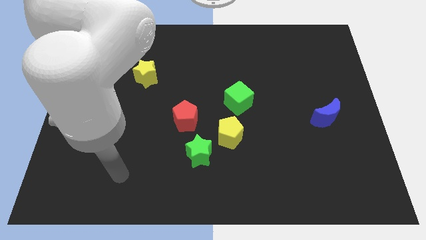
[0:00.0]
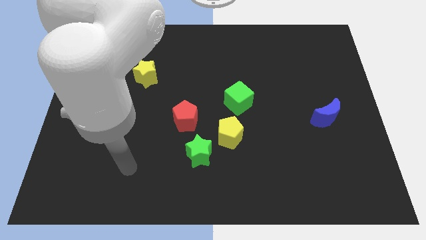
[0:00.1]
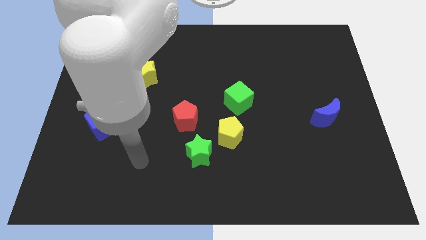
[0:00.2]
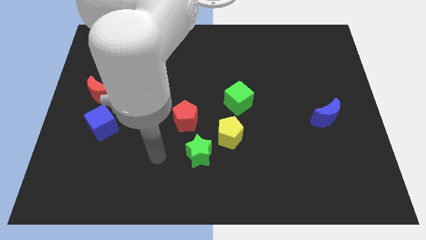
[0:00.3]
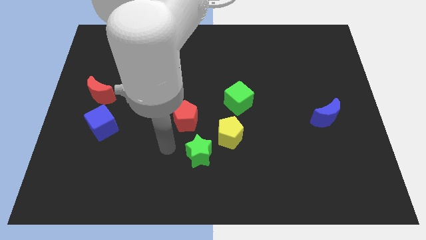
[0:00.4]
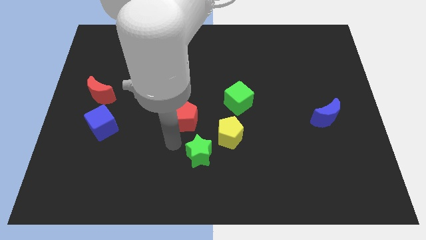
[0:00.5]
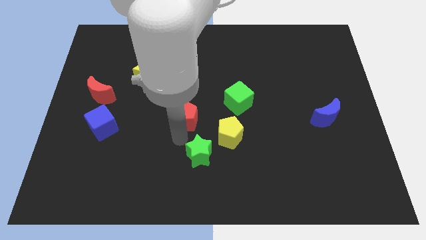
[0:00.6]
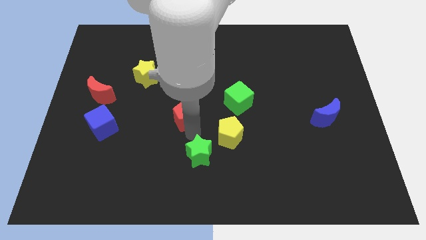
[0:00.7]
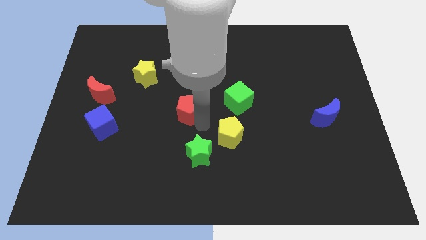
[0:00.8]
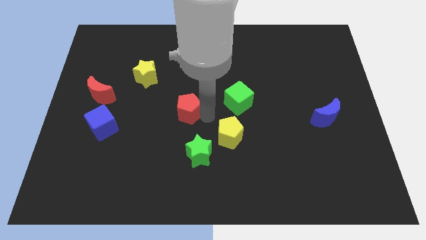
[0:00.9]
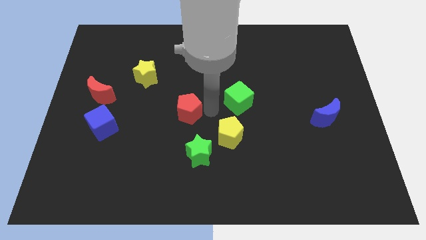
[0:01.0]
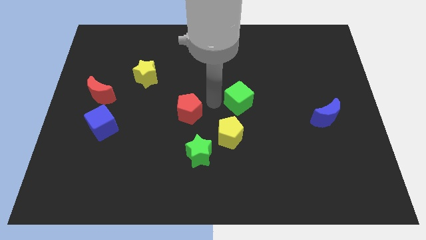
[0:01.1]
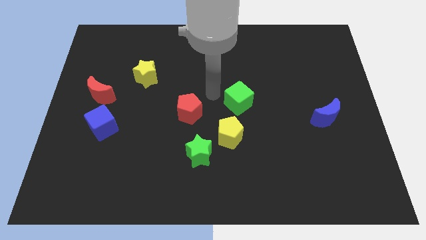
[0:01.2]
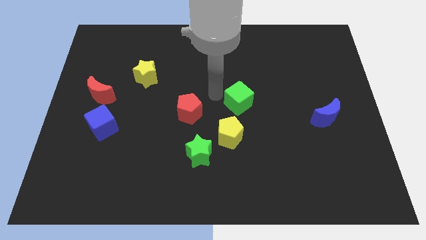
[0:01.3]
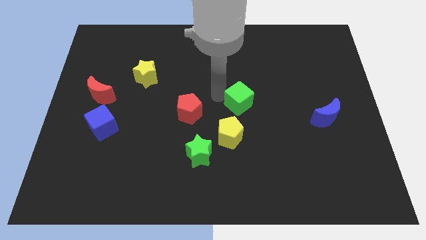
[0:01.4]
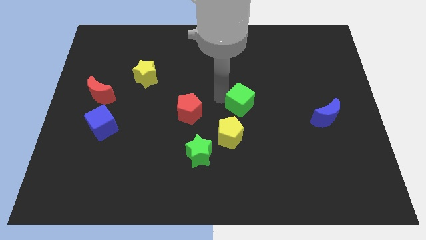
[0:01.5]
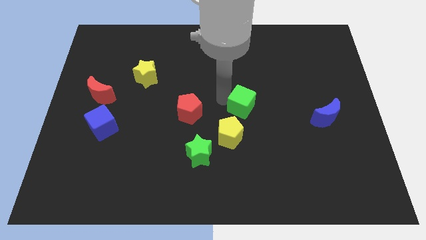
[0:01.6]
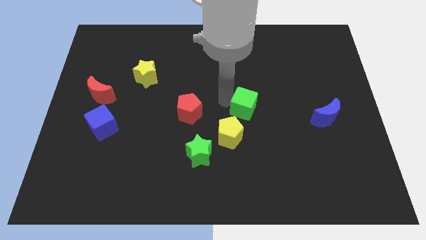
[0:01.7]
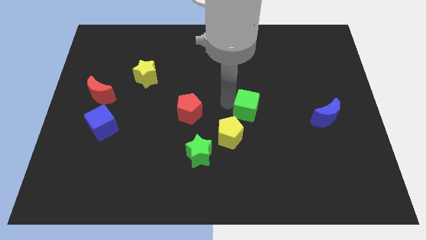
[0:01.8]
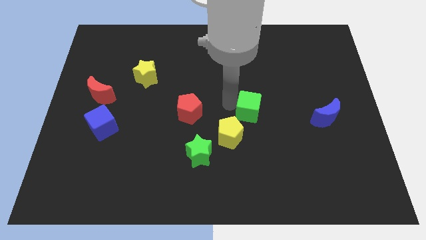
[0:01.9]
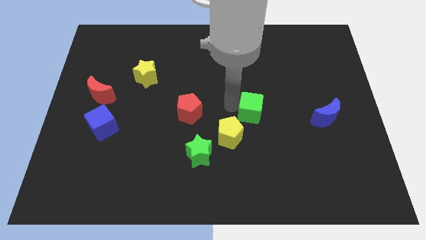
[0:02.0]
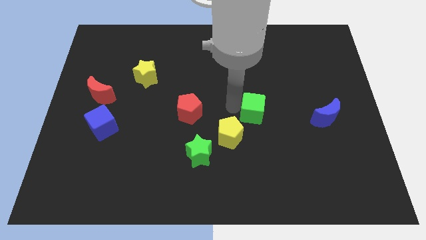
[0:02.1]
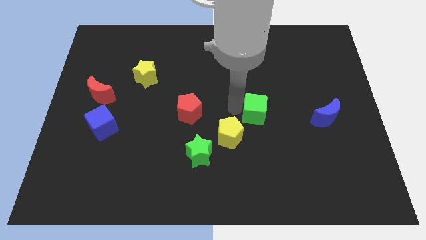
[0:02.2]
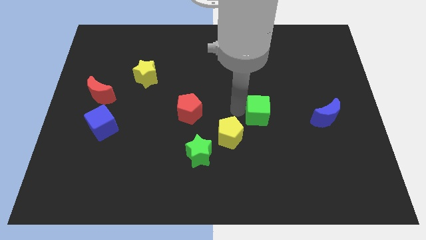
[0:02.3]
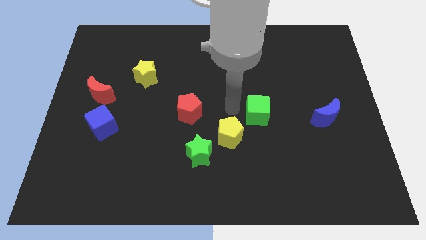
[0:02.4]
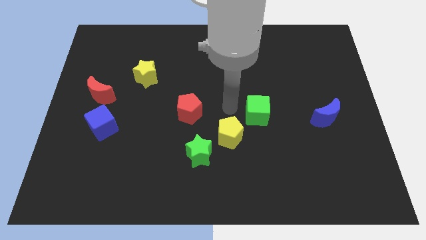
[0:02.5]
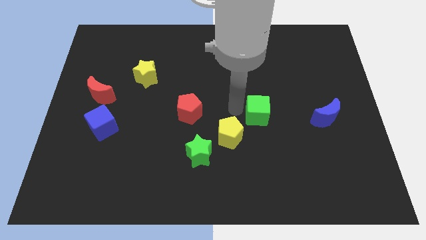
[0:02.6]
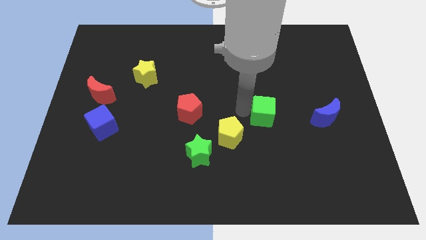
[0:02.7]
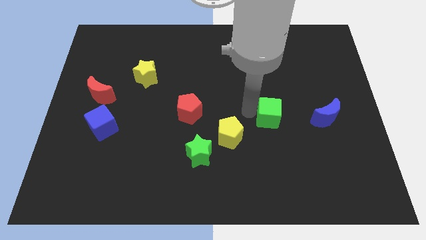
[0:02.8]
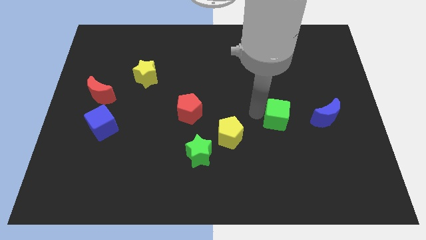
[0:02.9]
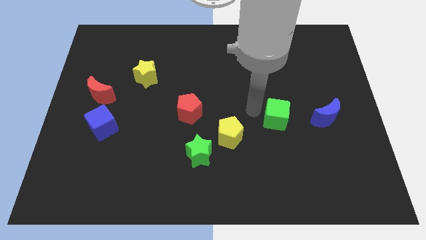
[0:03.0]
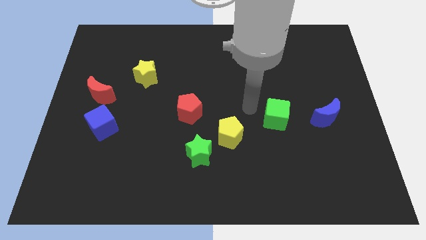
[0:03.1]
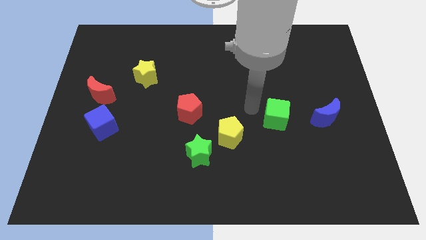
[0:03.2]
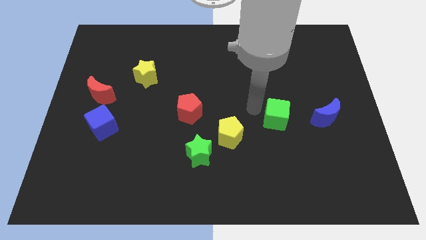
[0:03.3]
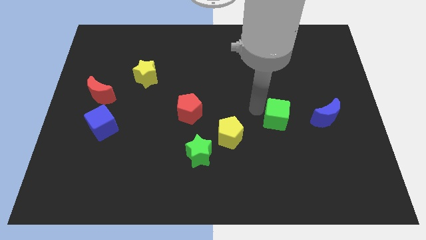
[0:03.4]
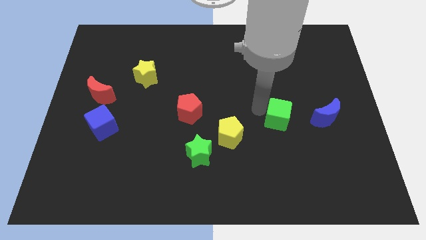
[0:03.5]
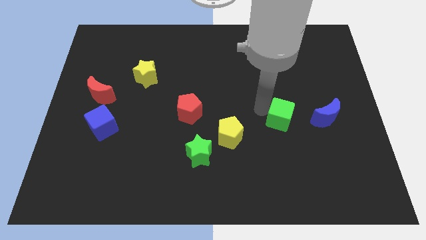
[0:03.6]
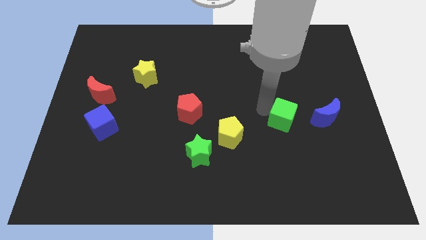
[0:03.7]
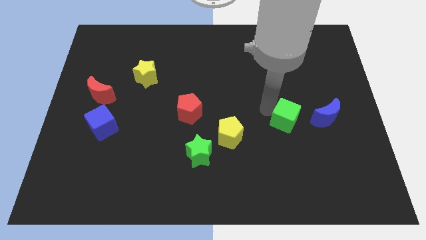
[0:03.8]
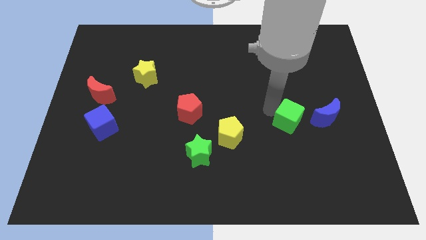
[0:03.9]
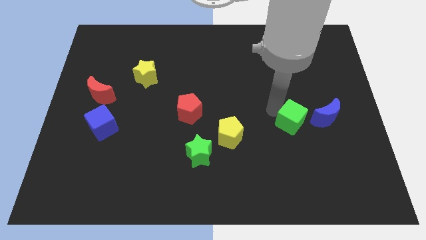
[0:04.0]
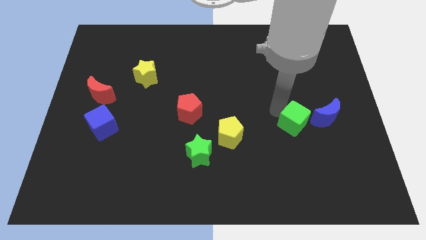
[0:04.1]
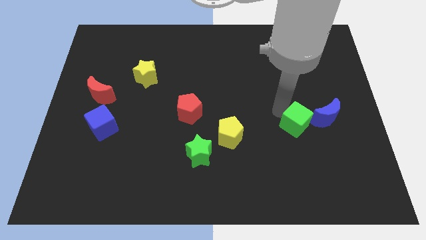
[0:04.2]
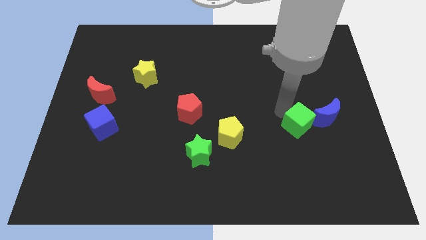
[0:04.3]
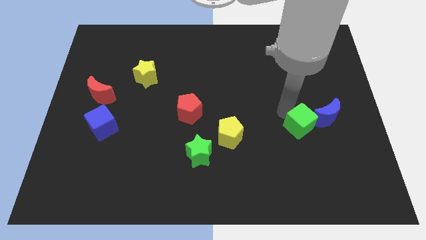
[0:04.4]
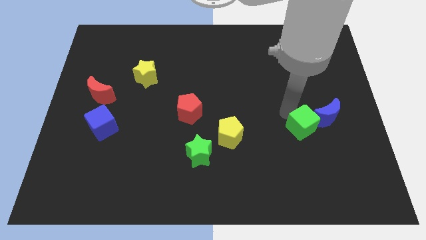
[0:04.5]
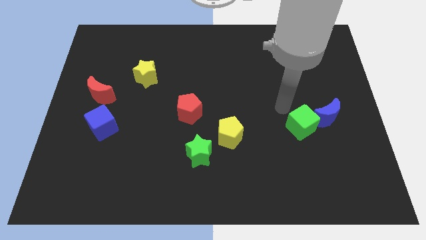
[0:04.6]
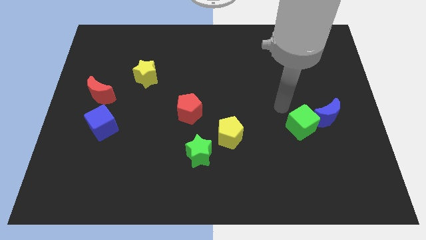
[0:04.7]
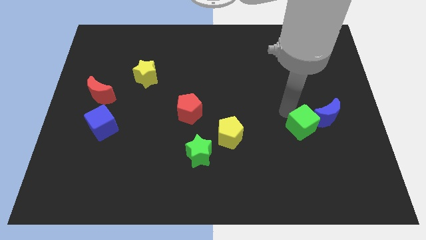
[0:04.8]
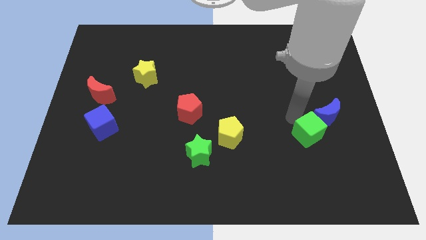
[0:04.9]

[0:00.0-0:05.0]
move the green cube to the bottom side of the blue moon

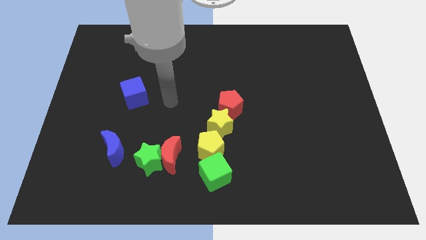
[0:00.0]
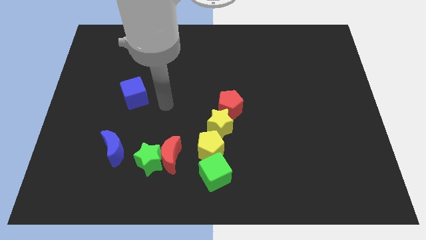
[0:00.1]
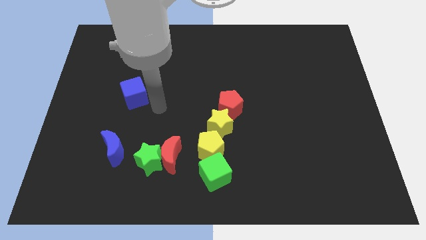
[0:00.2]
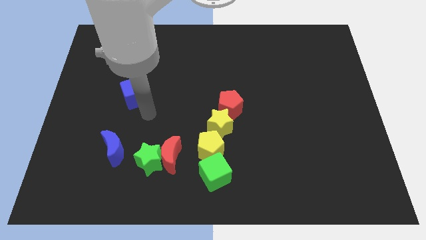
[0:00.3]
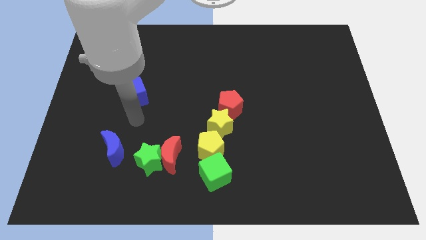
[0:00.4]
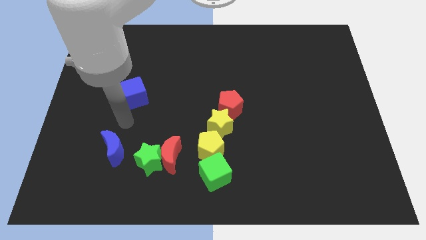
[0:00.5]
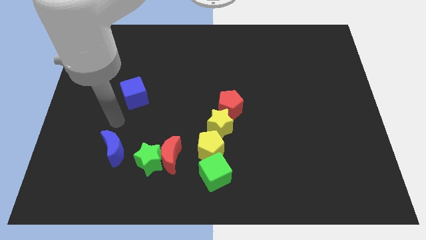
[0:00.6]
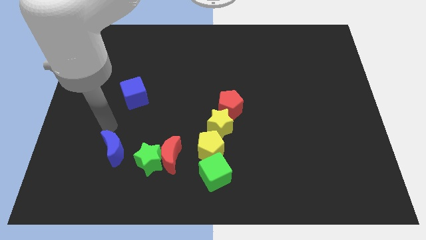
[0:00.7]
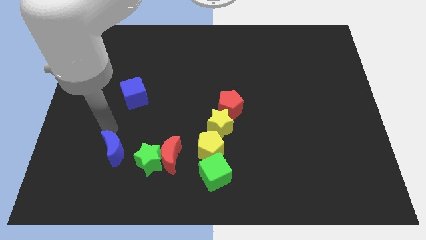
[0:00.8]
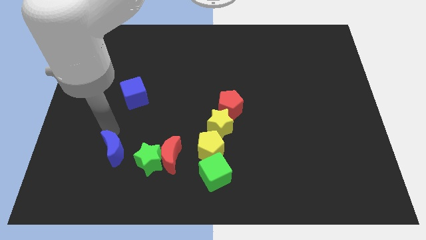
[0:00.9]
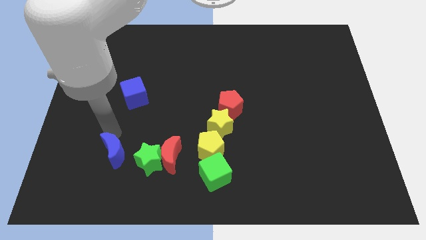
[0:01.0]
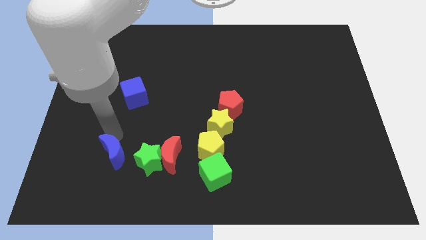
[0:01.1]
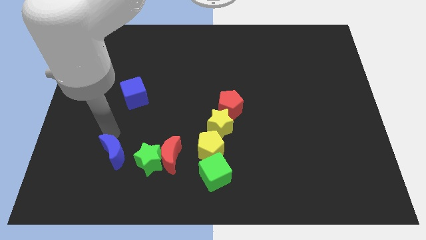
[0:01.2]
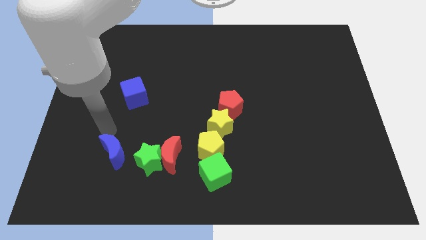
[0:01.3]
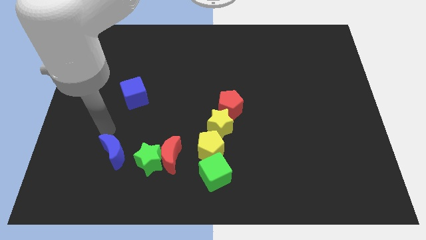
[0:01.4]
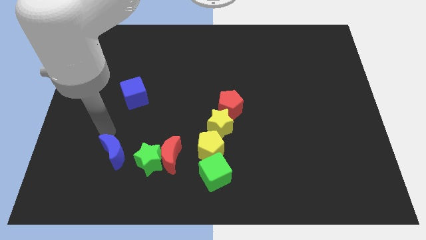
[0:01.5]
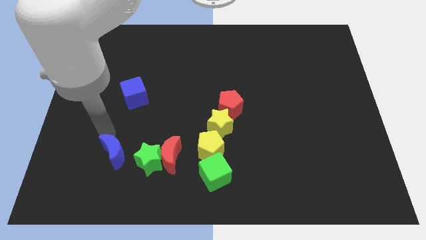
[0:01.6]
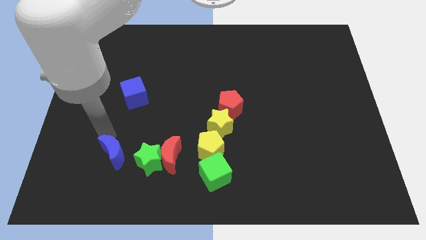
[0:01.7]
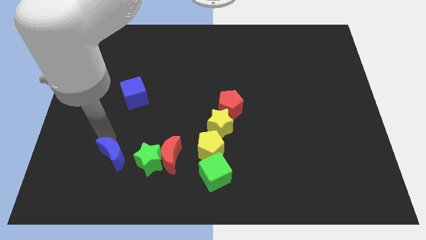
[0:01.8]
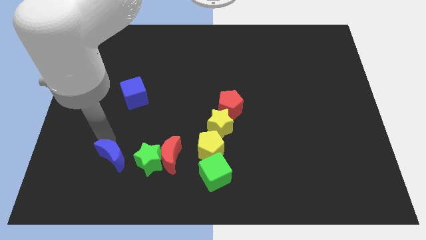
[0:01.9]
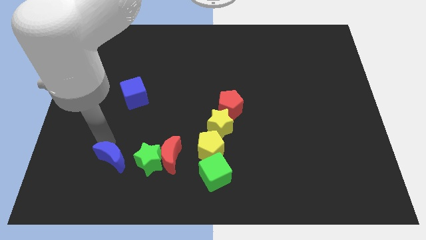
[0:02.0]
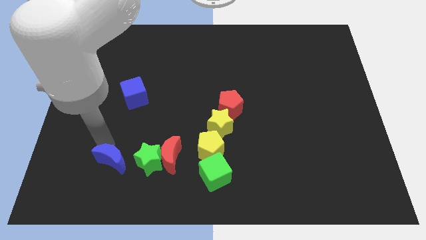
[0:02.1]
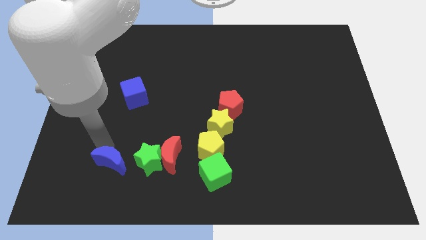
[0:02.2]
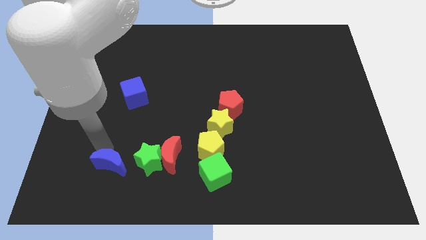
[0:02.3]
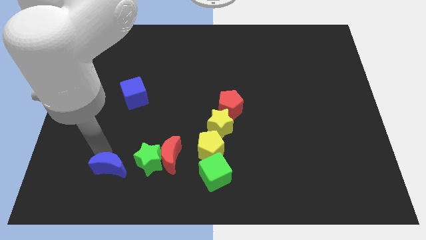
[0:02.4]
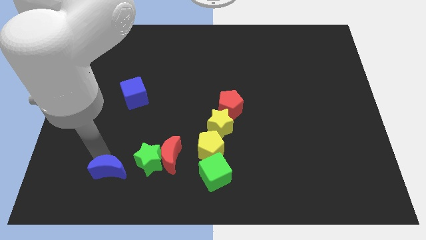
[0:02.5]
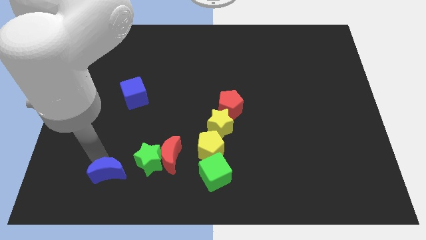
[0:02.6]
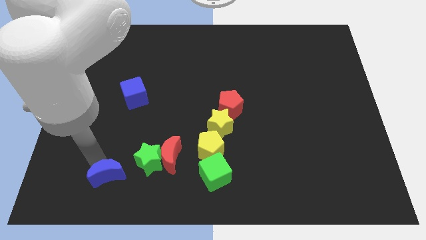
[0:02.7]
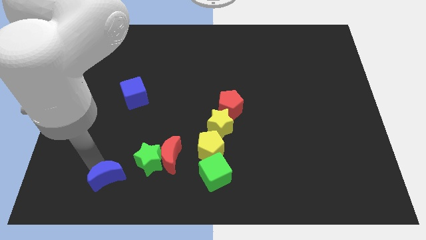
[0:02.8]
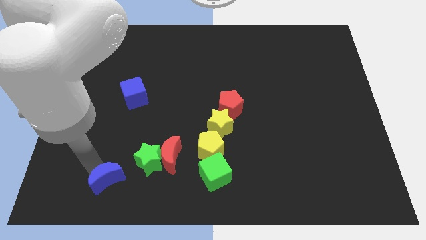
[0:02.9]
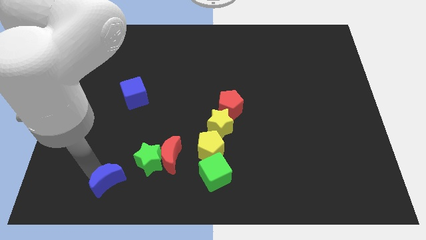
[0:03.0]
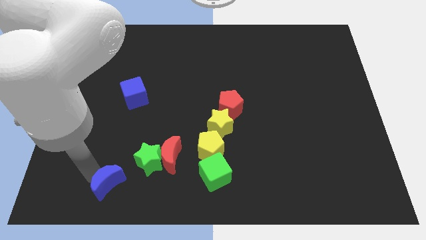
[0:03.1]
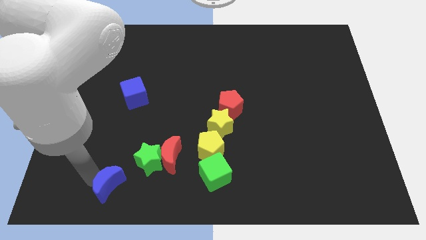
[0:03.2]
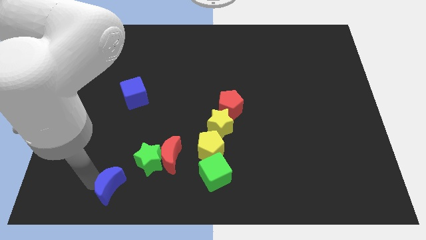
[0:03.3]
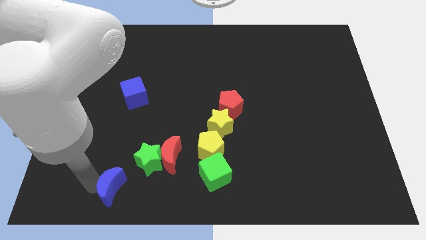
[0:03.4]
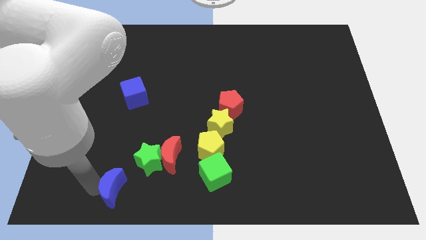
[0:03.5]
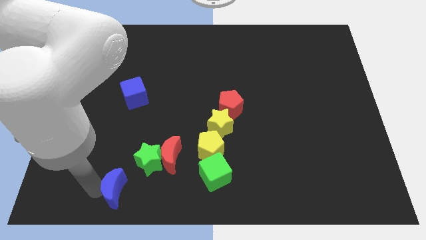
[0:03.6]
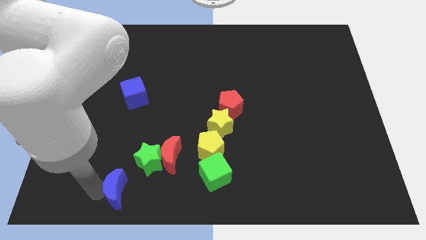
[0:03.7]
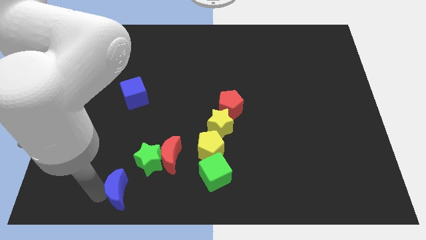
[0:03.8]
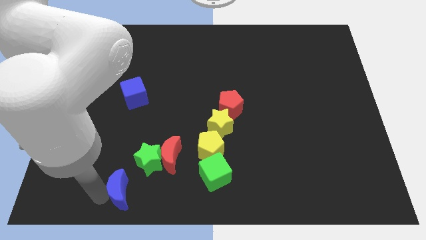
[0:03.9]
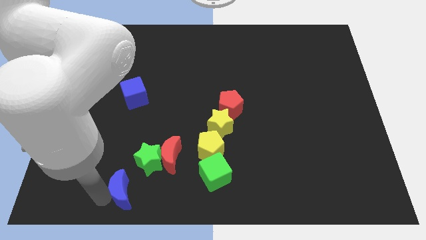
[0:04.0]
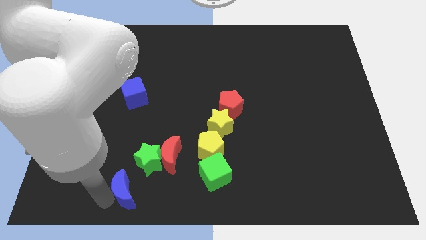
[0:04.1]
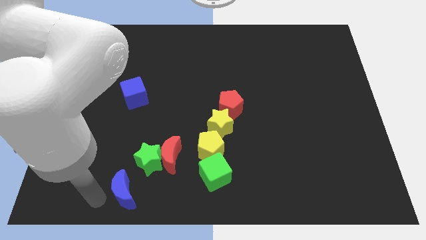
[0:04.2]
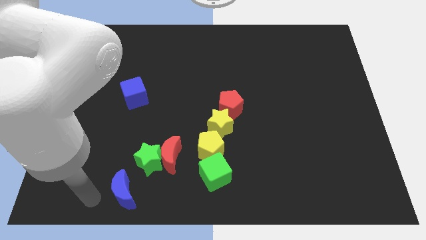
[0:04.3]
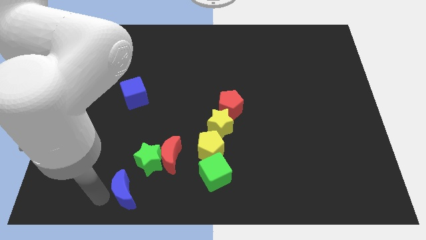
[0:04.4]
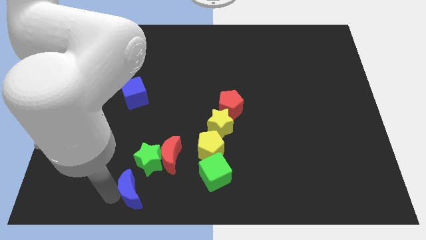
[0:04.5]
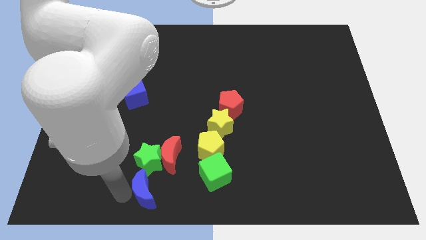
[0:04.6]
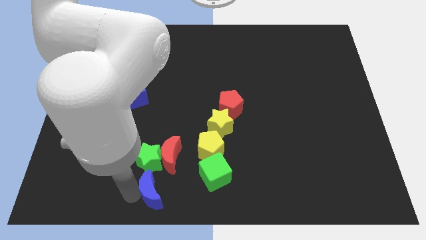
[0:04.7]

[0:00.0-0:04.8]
slide the blue moon to the bottom right side of the green star
